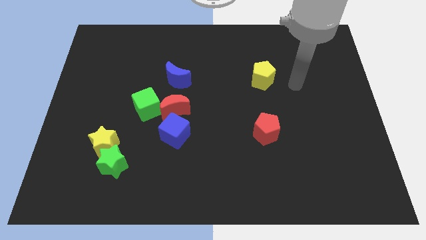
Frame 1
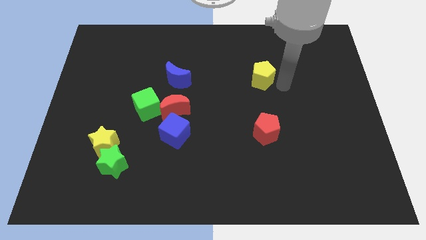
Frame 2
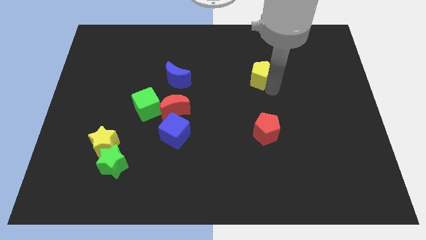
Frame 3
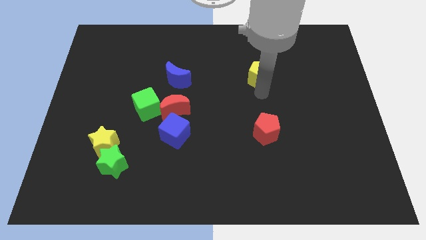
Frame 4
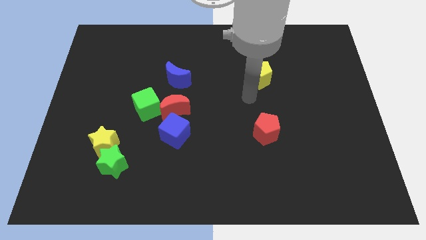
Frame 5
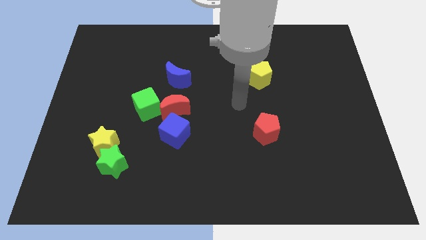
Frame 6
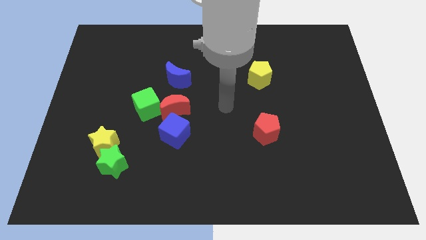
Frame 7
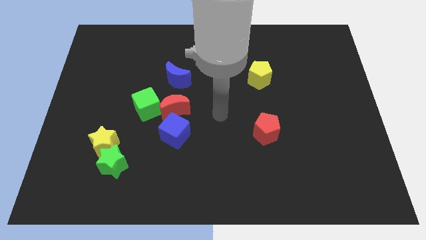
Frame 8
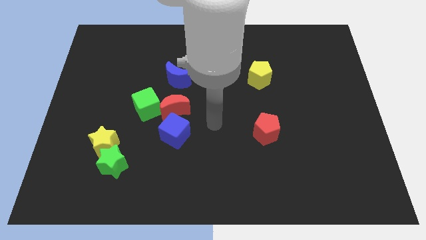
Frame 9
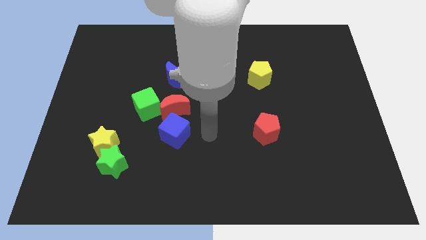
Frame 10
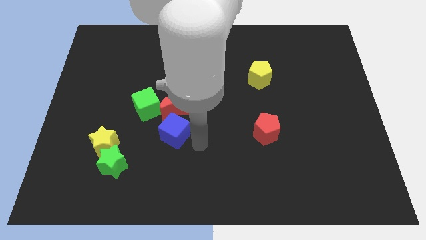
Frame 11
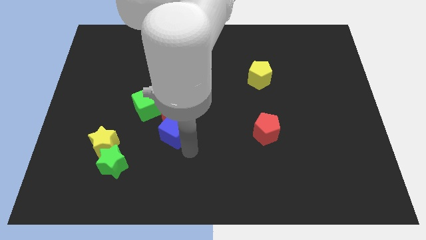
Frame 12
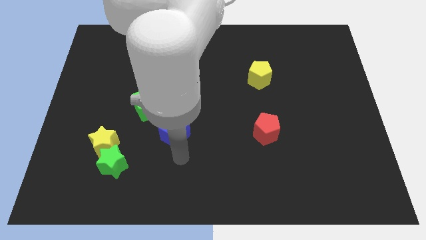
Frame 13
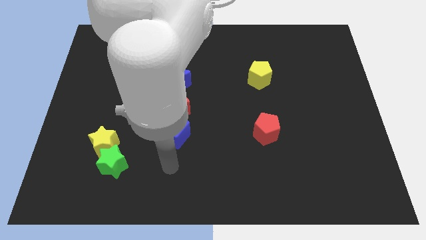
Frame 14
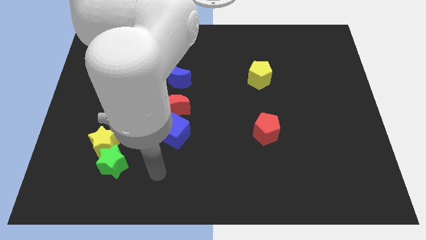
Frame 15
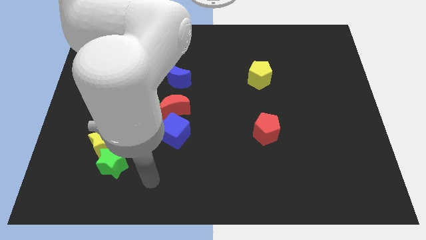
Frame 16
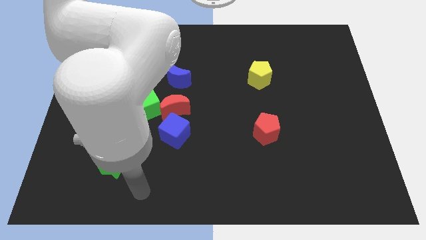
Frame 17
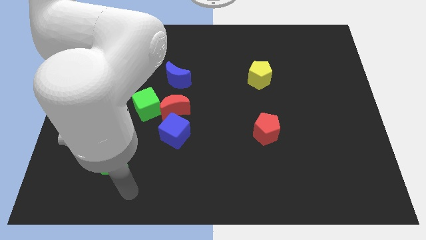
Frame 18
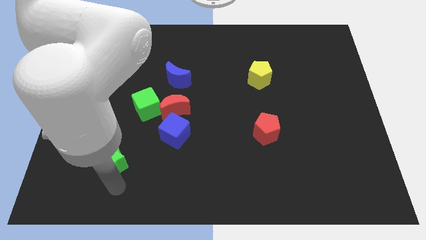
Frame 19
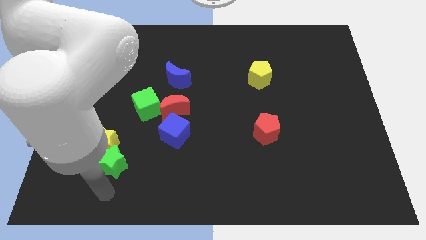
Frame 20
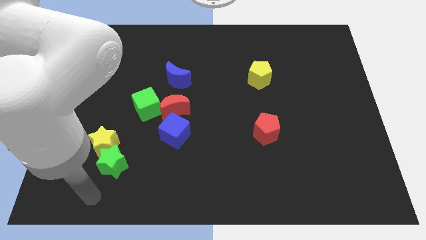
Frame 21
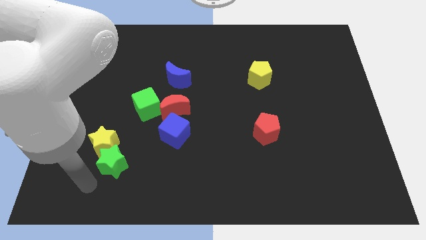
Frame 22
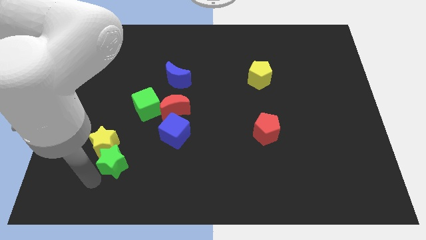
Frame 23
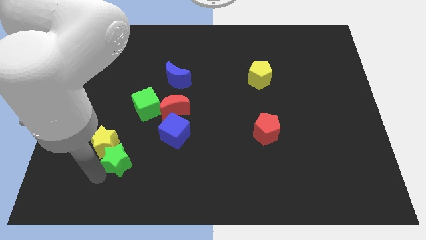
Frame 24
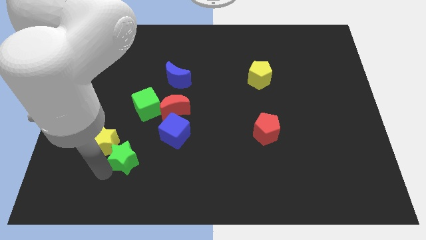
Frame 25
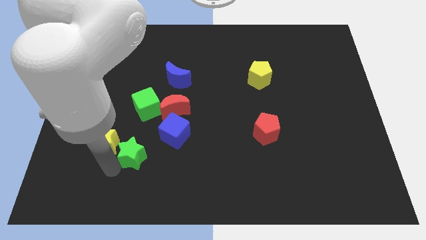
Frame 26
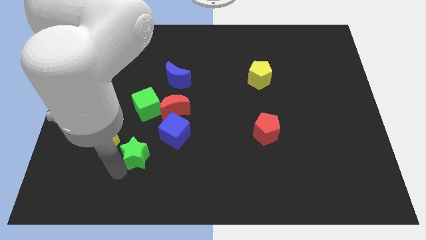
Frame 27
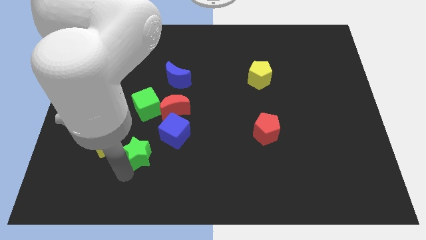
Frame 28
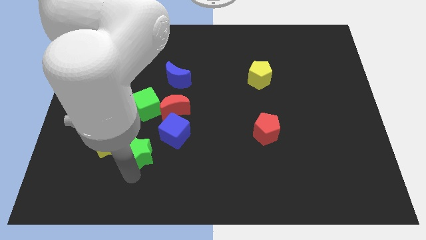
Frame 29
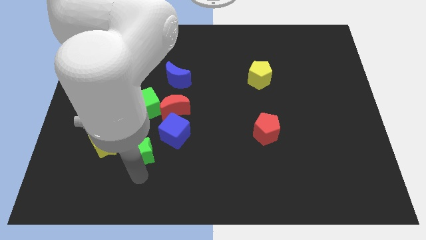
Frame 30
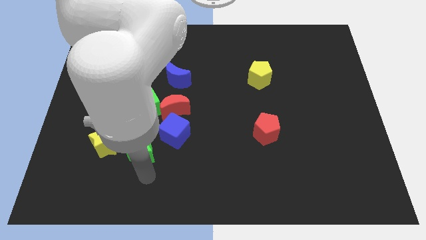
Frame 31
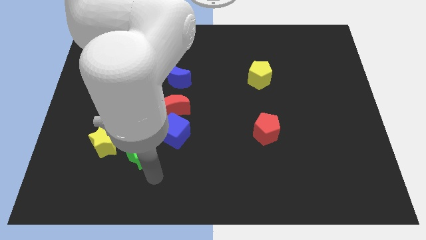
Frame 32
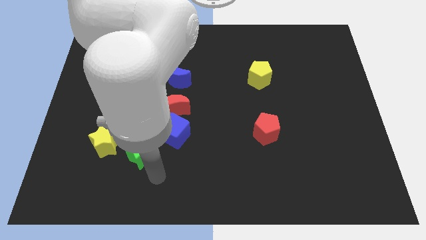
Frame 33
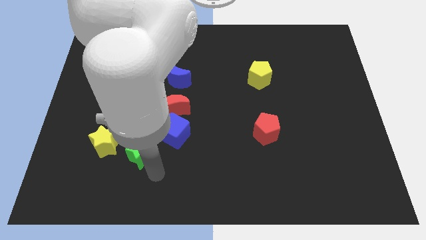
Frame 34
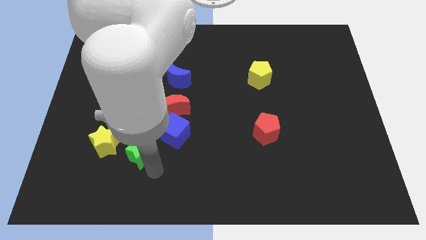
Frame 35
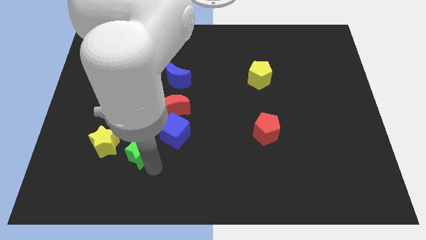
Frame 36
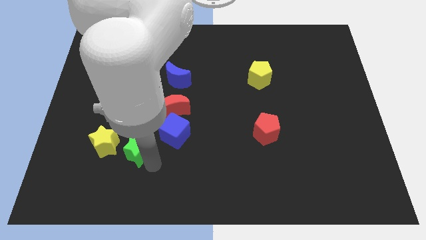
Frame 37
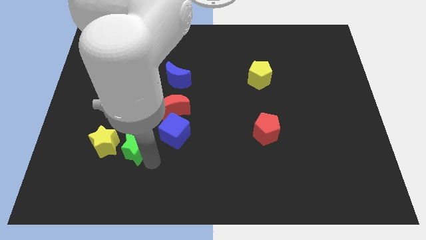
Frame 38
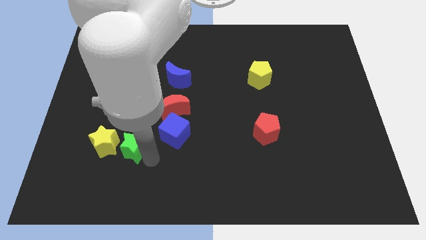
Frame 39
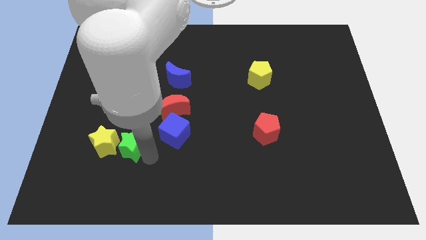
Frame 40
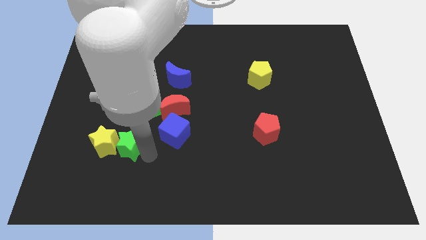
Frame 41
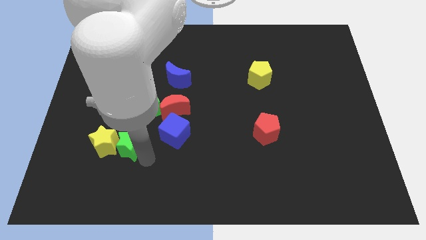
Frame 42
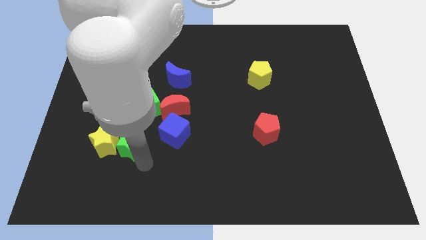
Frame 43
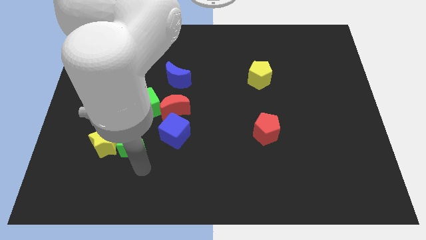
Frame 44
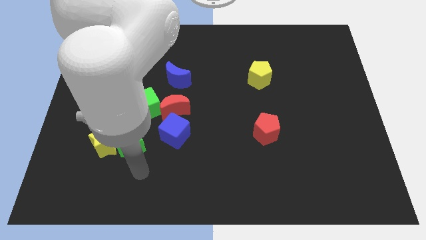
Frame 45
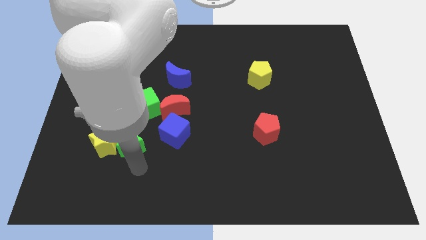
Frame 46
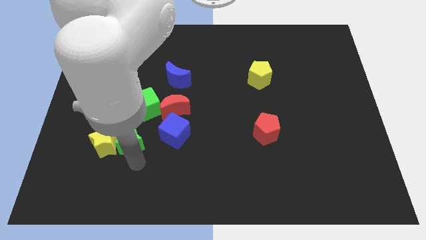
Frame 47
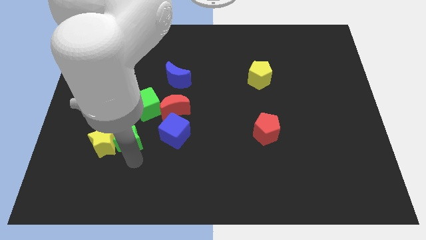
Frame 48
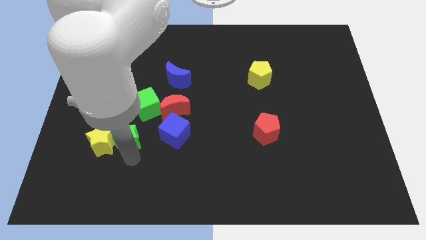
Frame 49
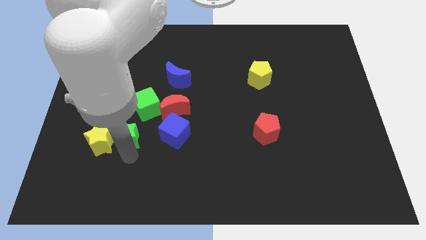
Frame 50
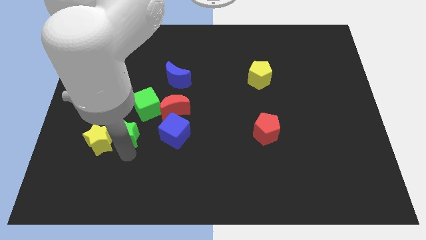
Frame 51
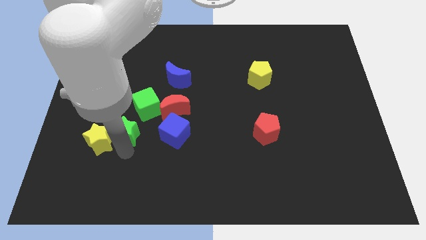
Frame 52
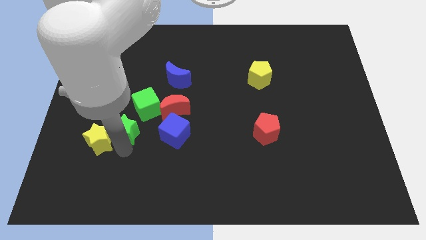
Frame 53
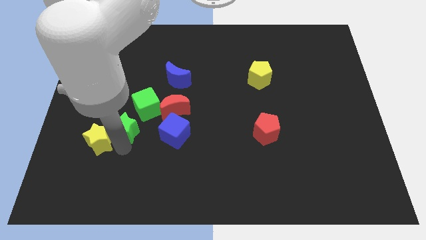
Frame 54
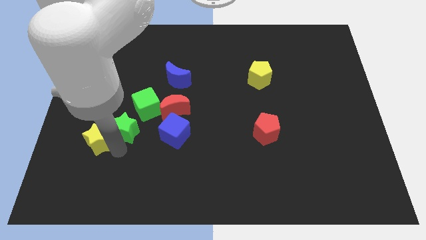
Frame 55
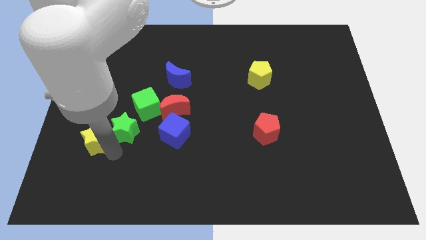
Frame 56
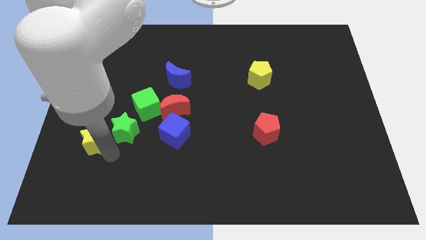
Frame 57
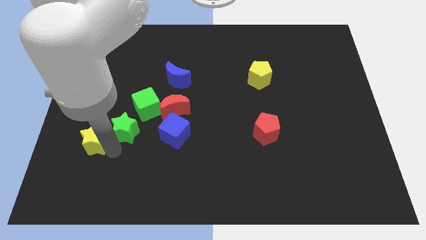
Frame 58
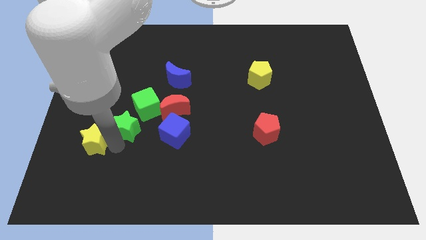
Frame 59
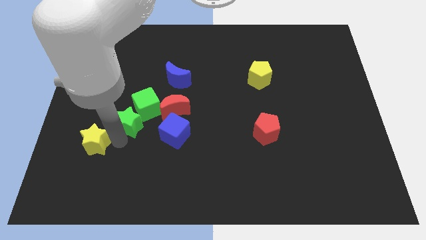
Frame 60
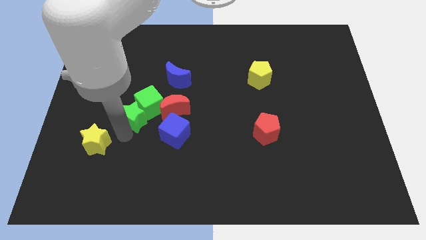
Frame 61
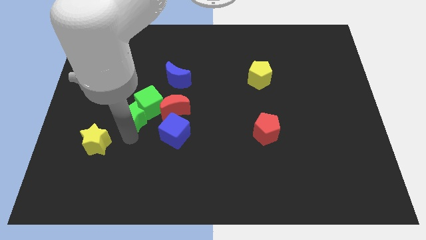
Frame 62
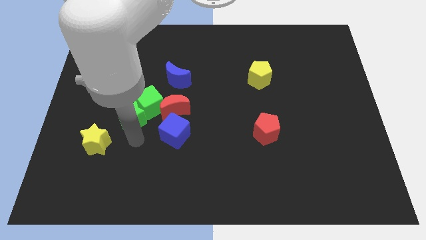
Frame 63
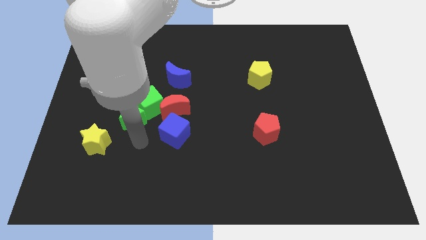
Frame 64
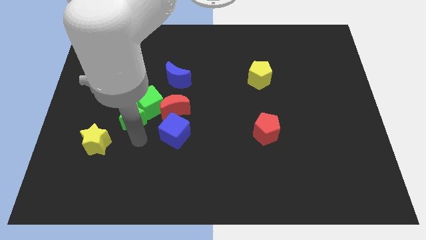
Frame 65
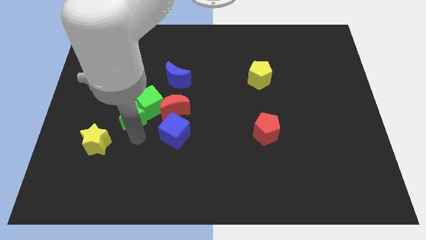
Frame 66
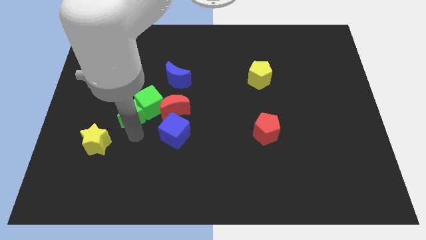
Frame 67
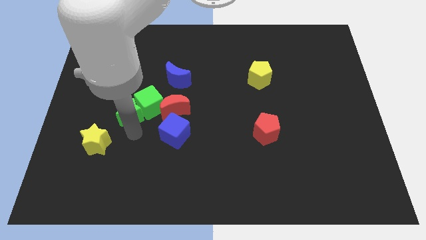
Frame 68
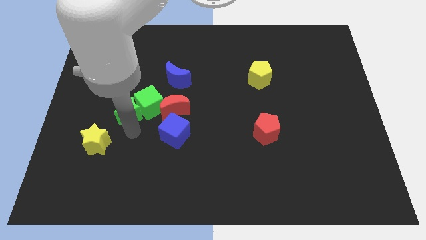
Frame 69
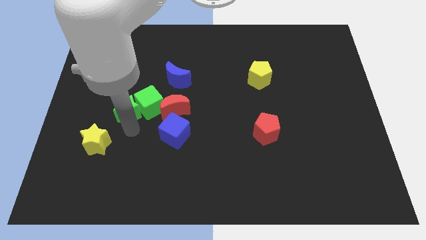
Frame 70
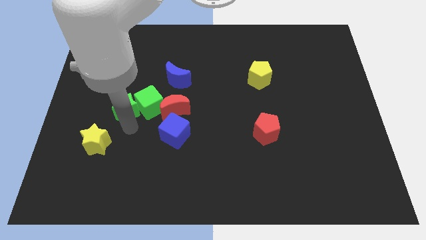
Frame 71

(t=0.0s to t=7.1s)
push the green star to the top left of the green cube

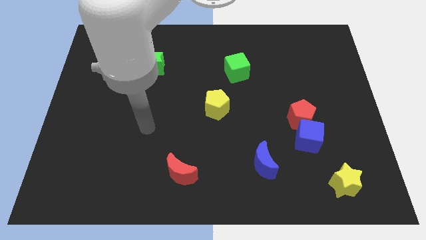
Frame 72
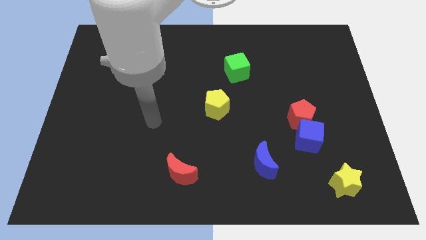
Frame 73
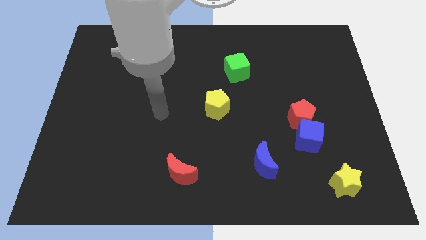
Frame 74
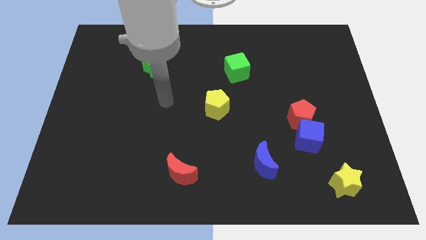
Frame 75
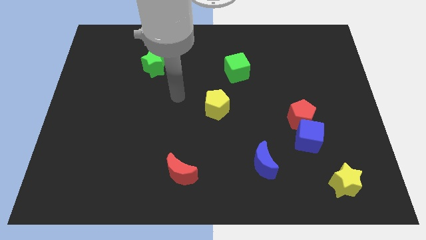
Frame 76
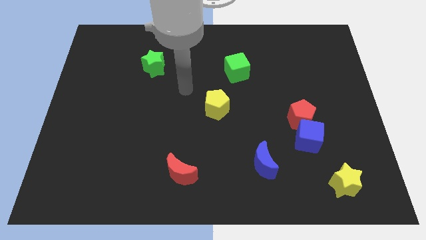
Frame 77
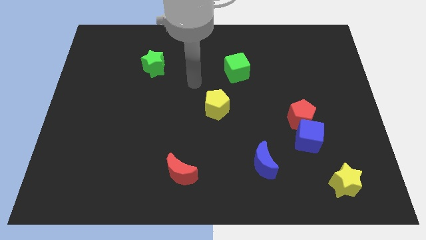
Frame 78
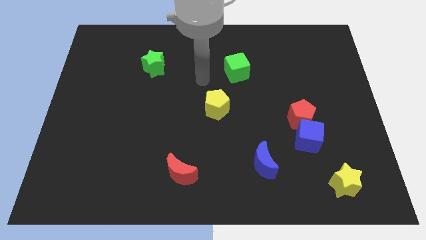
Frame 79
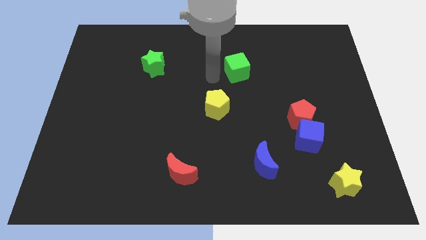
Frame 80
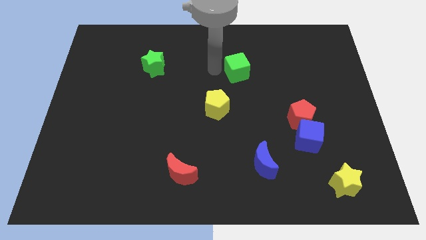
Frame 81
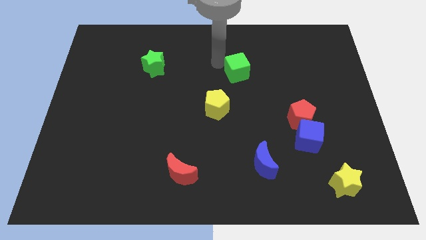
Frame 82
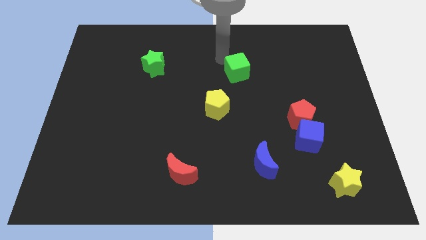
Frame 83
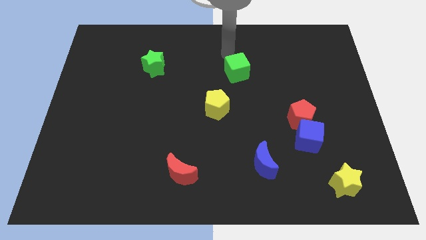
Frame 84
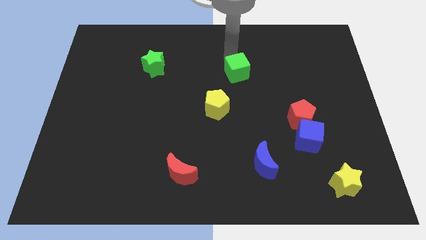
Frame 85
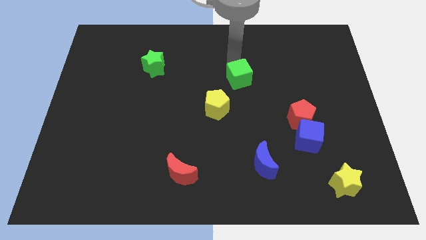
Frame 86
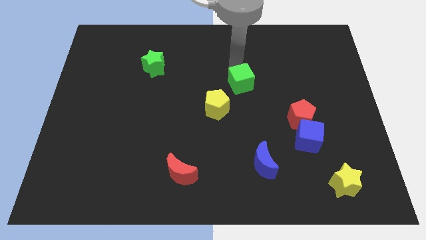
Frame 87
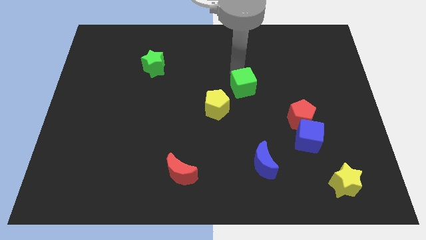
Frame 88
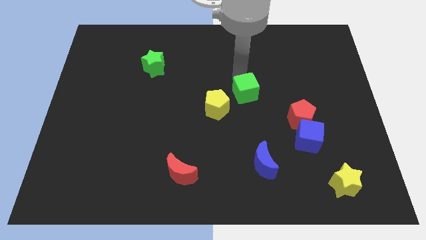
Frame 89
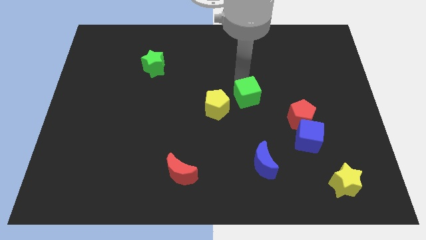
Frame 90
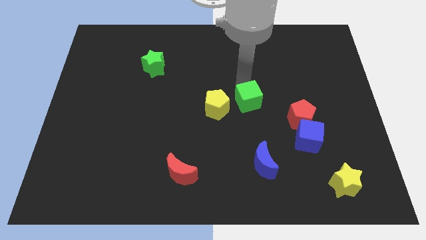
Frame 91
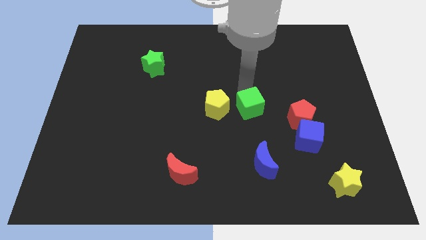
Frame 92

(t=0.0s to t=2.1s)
put the green cube to the top side of the blue moon
